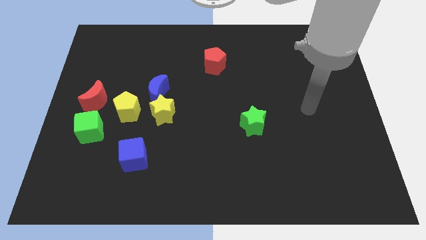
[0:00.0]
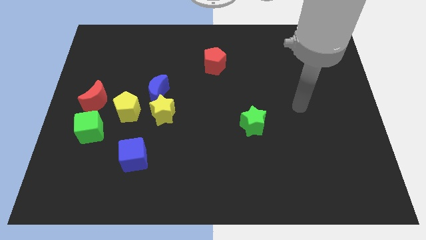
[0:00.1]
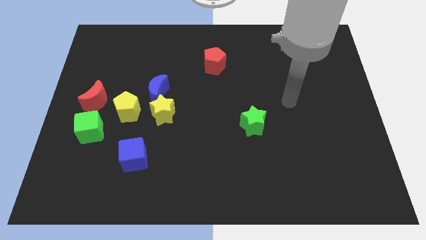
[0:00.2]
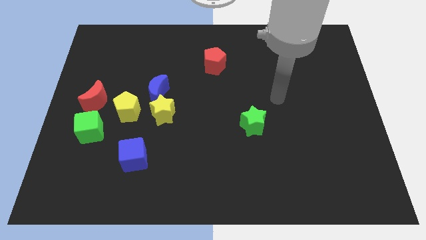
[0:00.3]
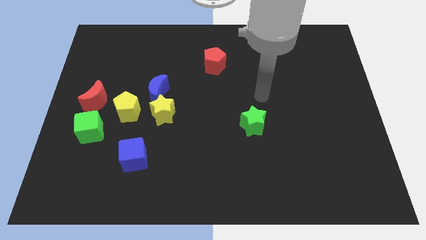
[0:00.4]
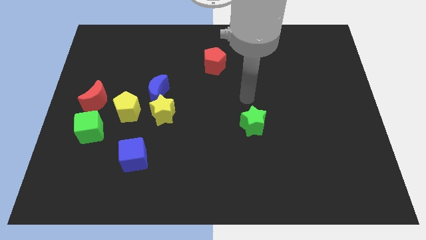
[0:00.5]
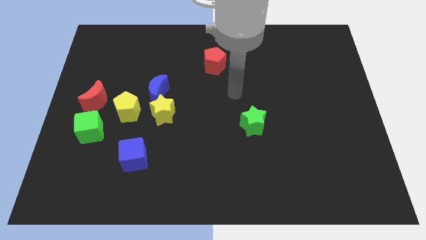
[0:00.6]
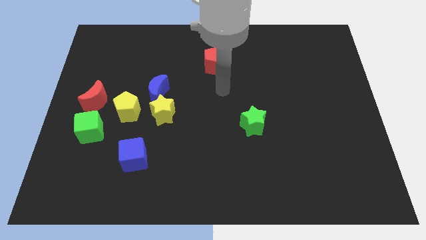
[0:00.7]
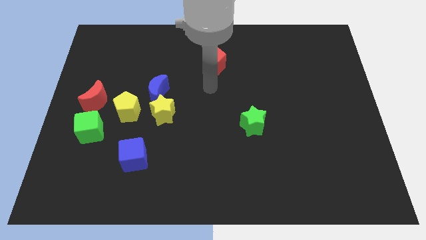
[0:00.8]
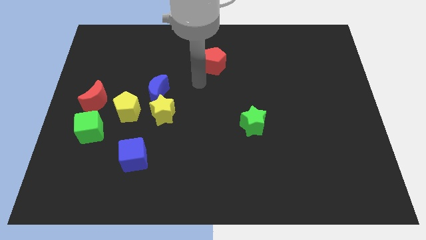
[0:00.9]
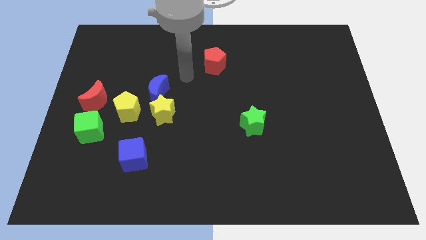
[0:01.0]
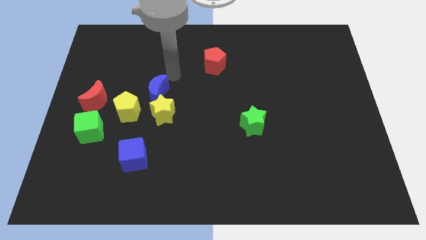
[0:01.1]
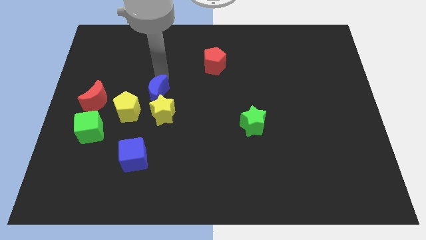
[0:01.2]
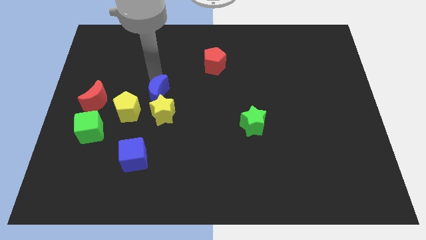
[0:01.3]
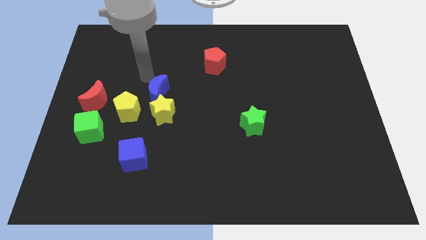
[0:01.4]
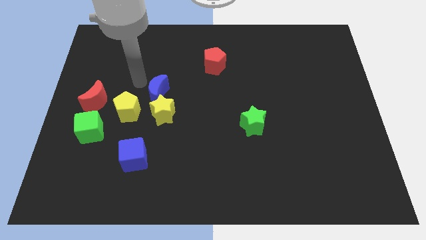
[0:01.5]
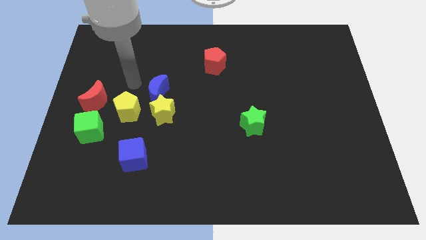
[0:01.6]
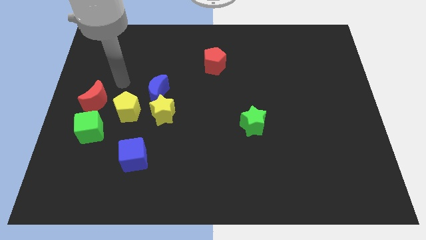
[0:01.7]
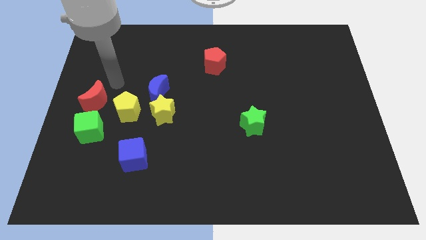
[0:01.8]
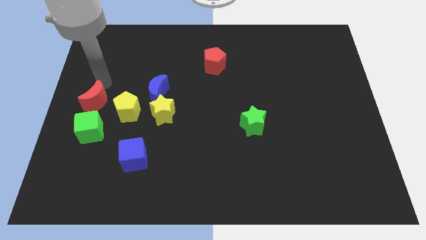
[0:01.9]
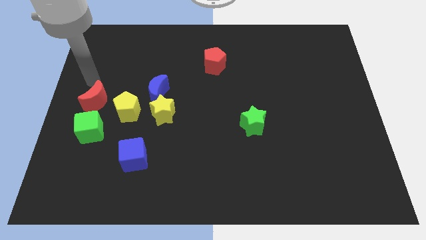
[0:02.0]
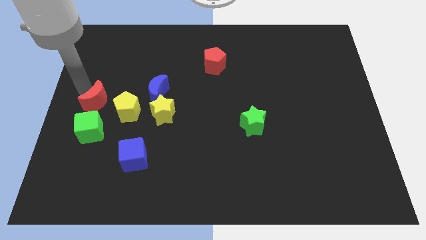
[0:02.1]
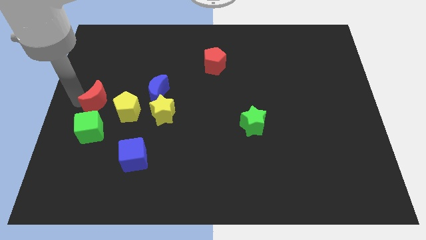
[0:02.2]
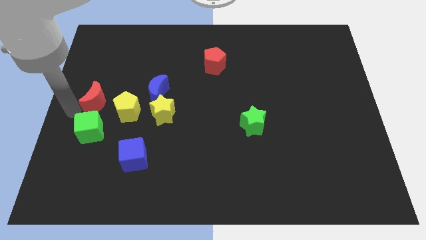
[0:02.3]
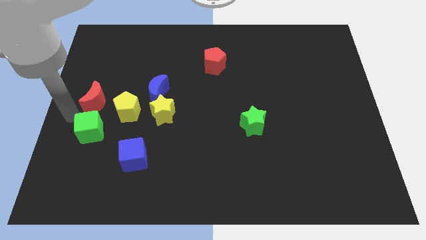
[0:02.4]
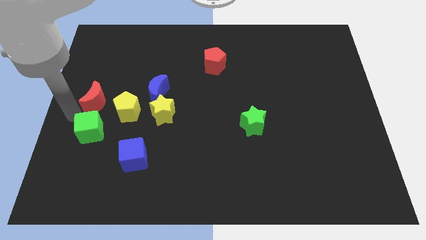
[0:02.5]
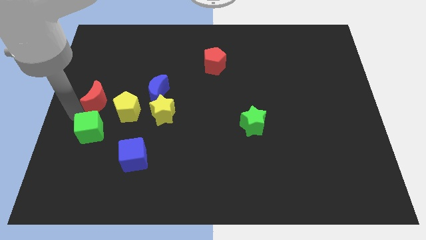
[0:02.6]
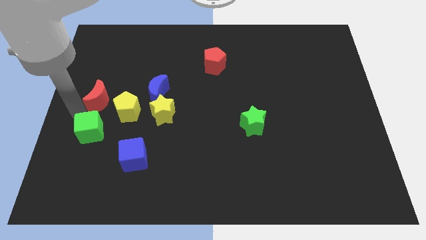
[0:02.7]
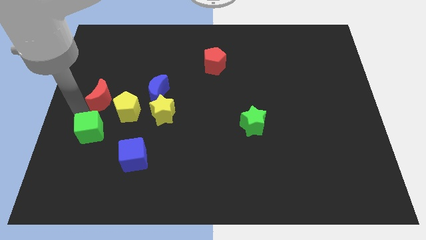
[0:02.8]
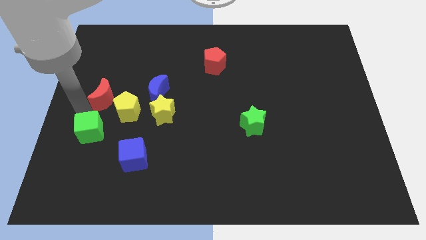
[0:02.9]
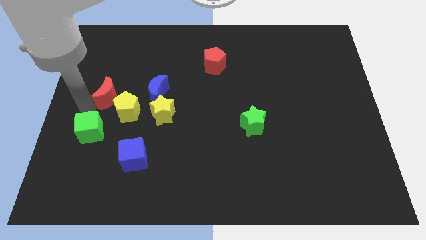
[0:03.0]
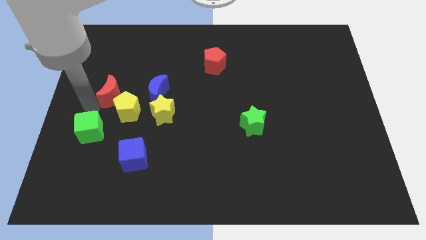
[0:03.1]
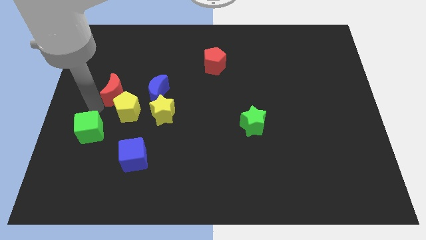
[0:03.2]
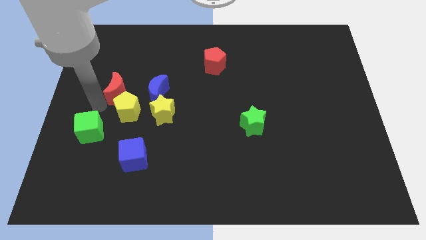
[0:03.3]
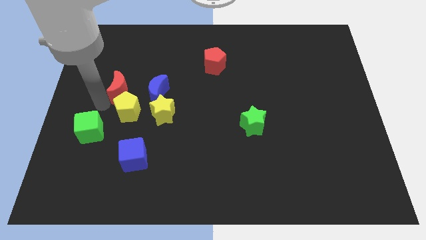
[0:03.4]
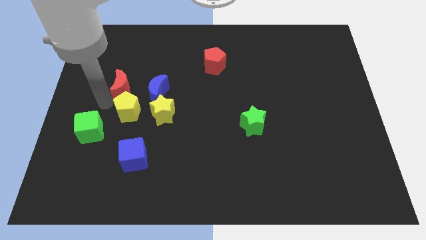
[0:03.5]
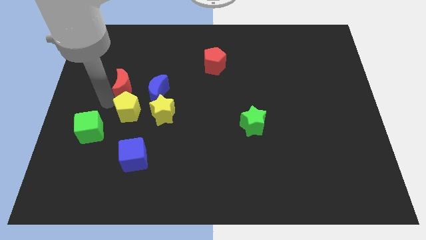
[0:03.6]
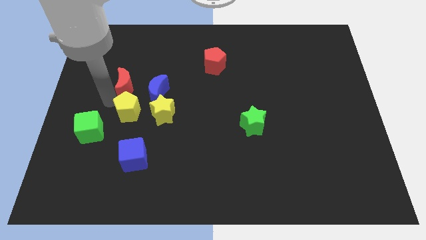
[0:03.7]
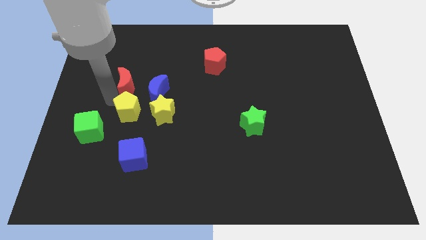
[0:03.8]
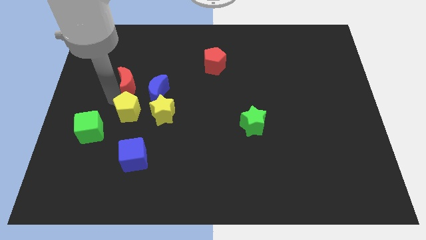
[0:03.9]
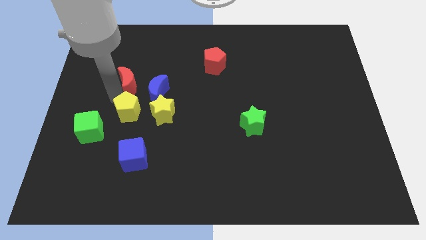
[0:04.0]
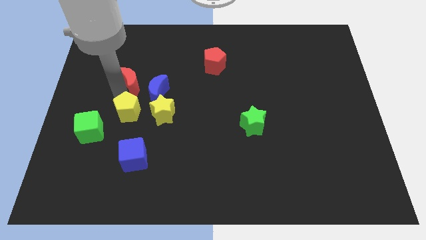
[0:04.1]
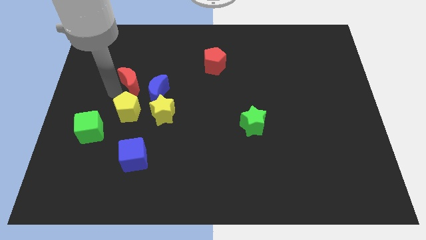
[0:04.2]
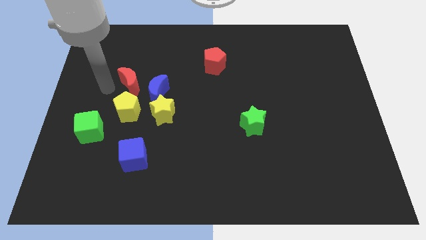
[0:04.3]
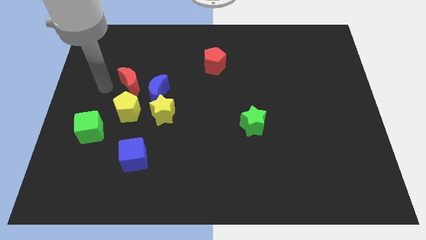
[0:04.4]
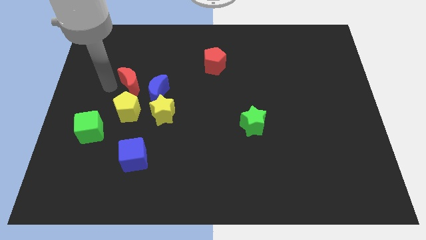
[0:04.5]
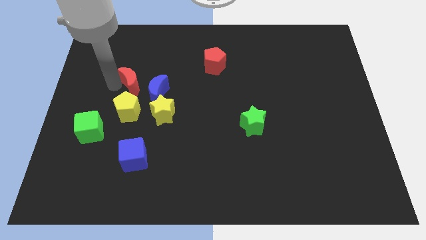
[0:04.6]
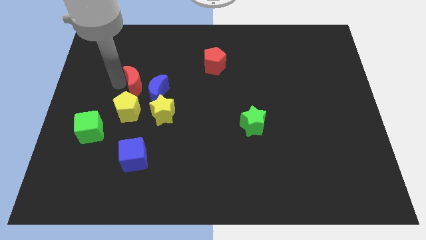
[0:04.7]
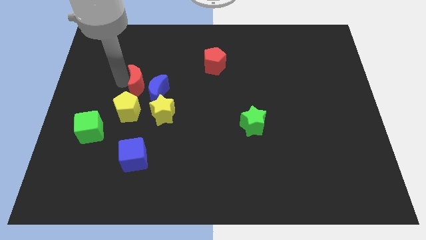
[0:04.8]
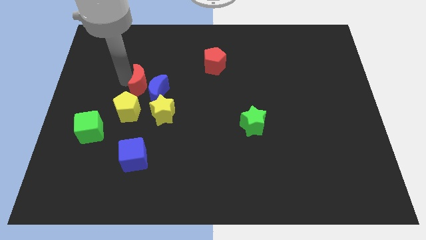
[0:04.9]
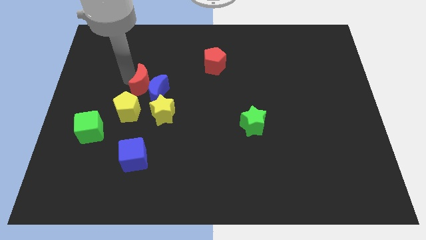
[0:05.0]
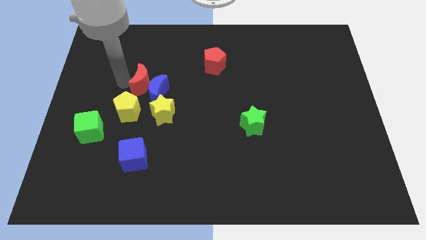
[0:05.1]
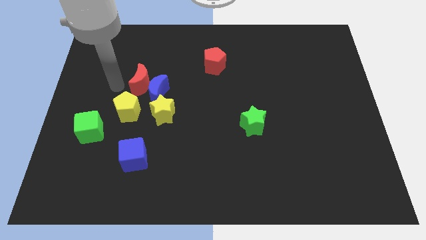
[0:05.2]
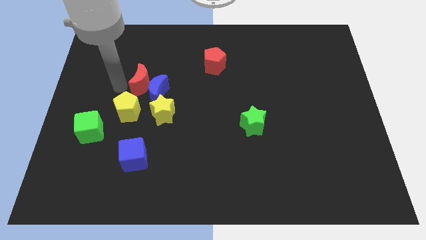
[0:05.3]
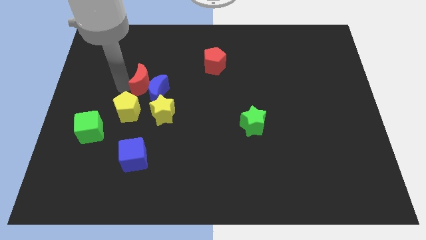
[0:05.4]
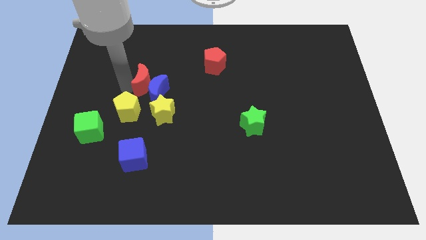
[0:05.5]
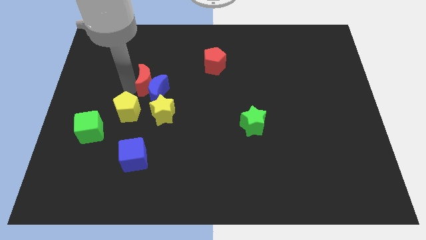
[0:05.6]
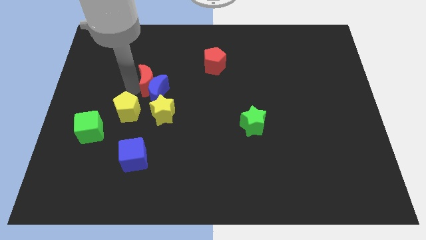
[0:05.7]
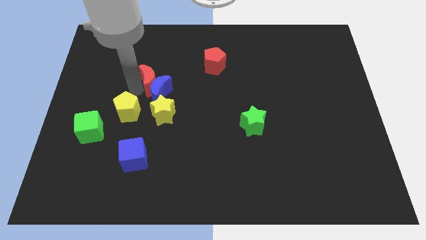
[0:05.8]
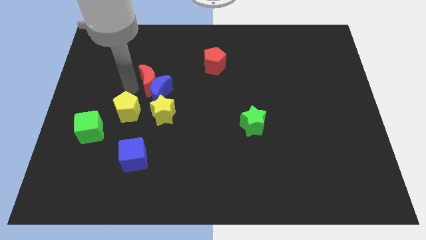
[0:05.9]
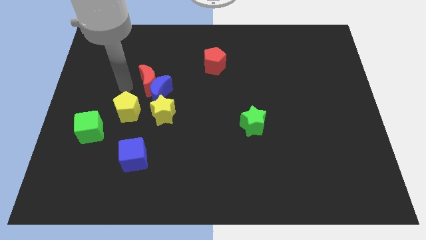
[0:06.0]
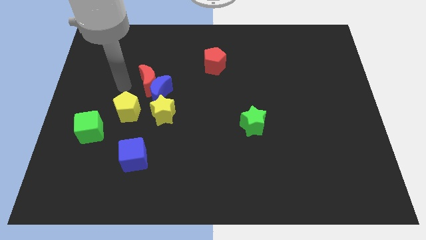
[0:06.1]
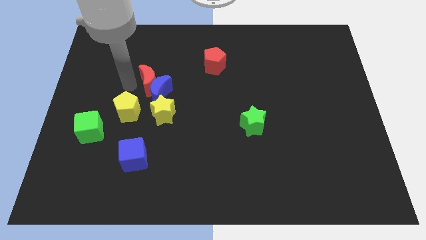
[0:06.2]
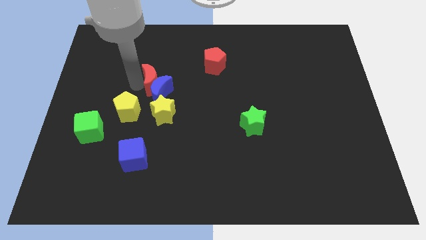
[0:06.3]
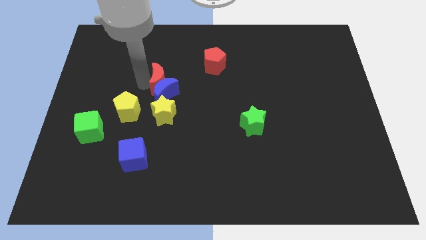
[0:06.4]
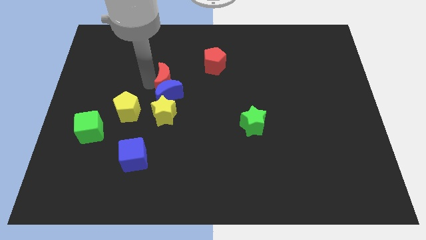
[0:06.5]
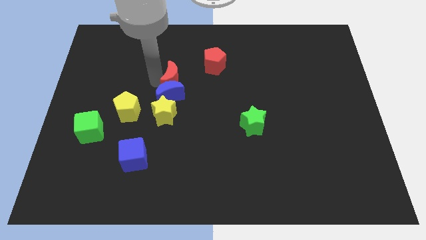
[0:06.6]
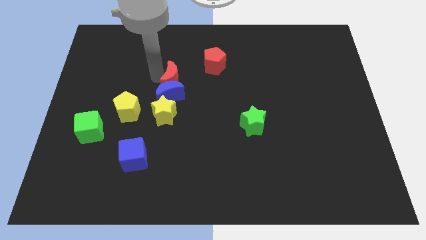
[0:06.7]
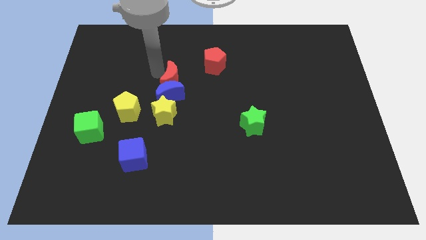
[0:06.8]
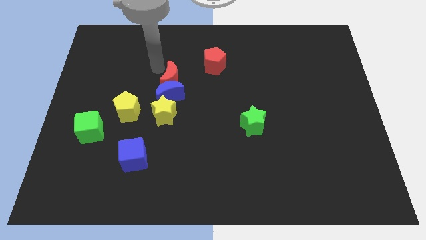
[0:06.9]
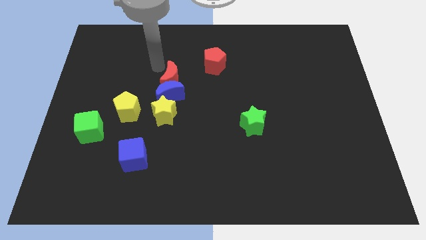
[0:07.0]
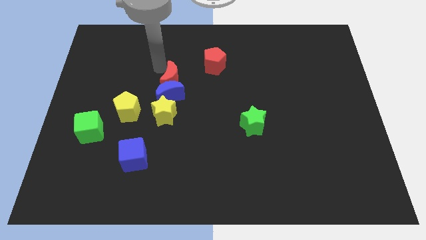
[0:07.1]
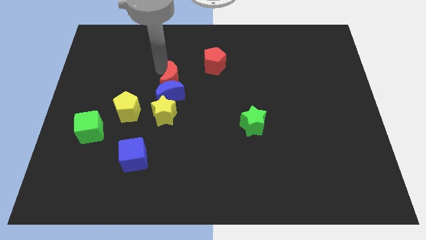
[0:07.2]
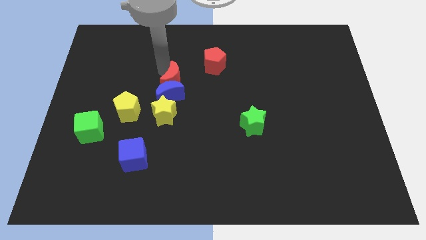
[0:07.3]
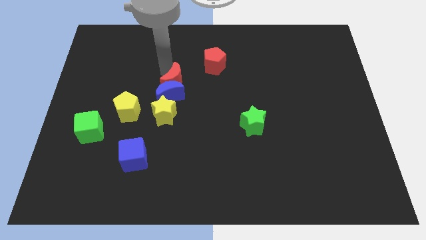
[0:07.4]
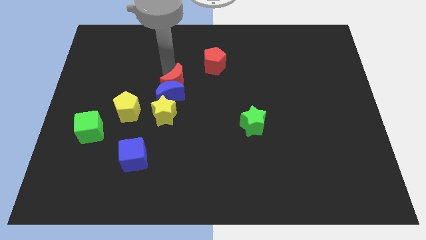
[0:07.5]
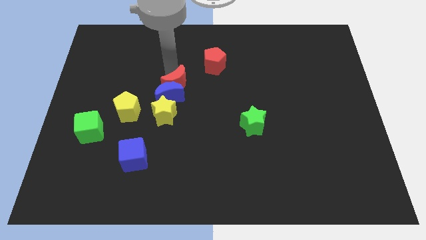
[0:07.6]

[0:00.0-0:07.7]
put the red moon diagonally up and to the right of the yellow star
